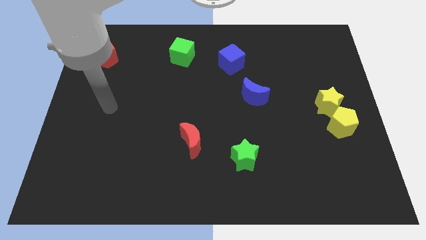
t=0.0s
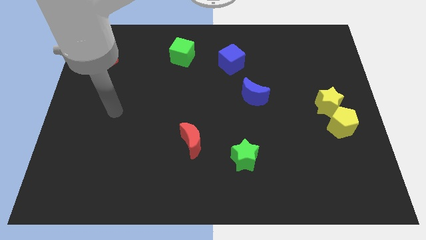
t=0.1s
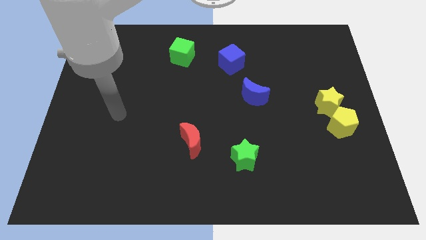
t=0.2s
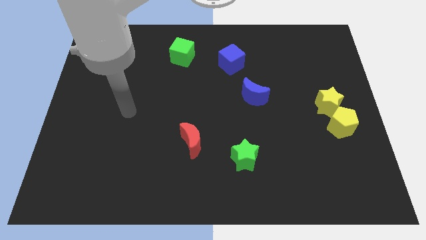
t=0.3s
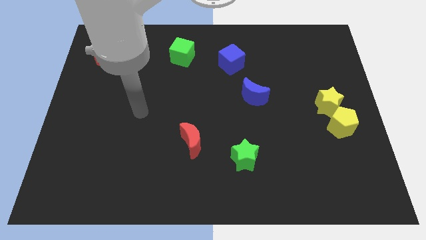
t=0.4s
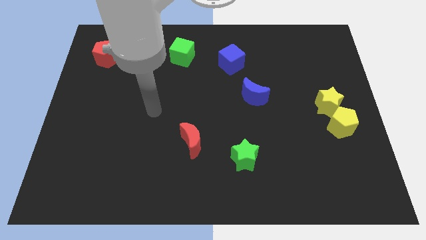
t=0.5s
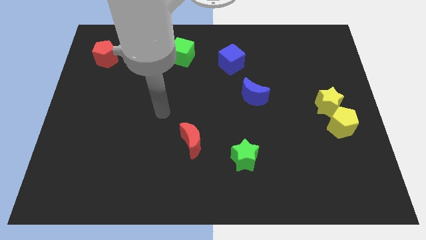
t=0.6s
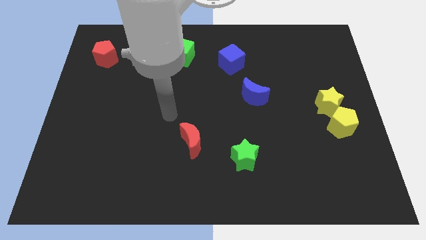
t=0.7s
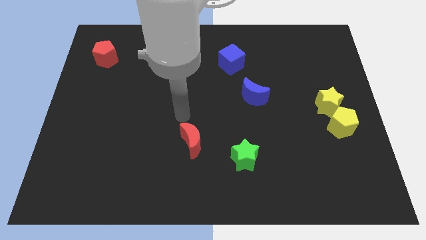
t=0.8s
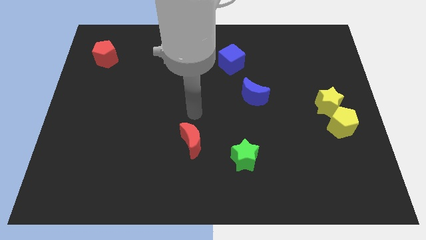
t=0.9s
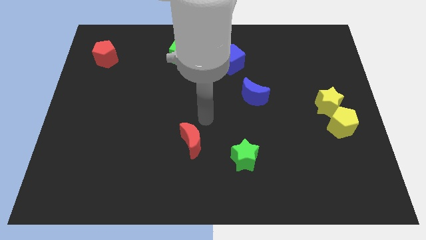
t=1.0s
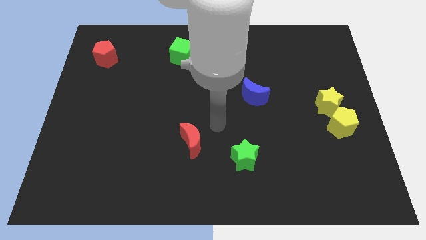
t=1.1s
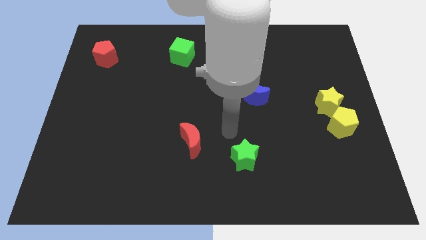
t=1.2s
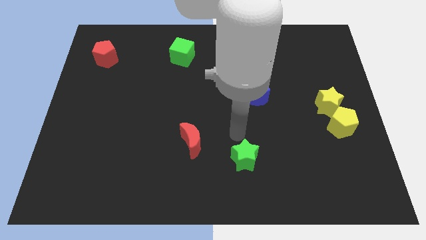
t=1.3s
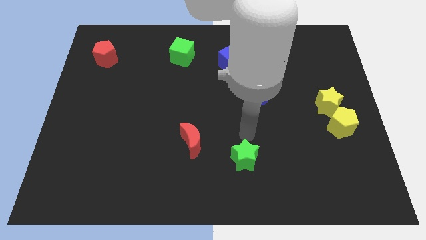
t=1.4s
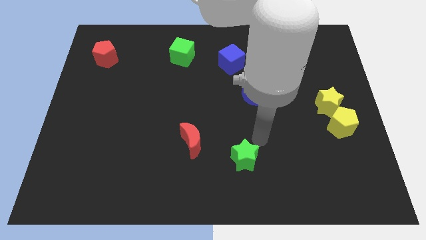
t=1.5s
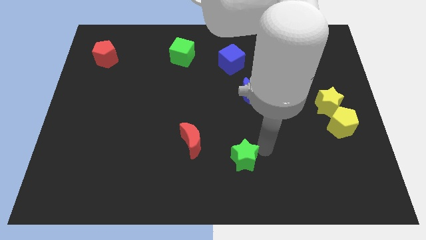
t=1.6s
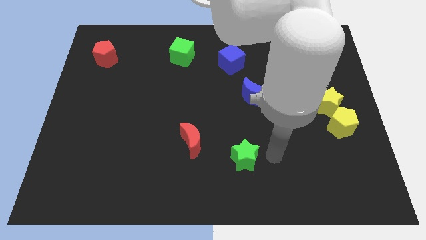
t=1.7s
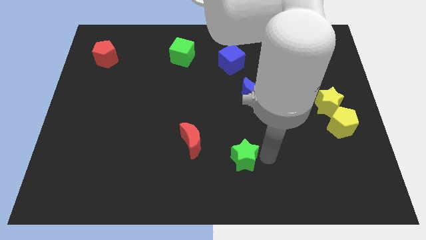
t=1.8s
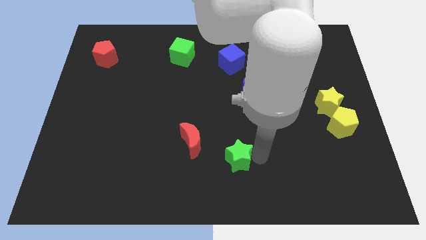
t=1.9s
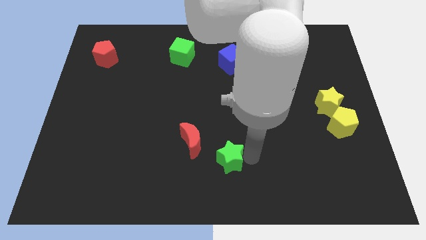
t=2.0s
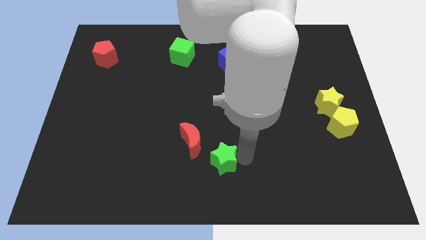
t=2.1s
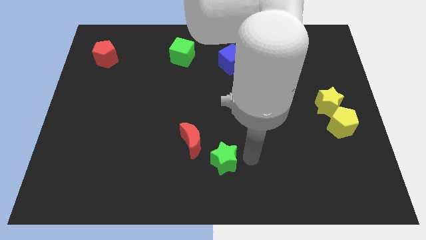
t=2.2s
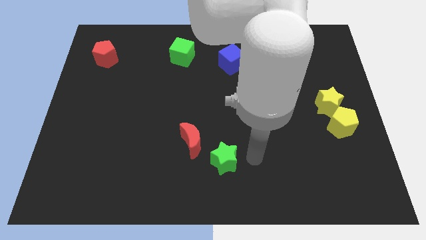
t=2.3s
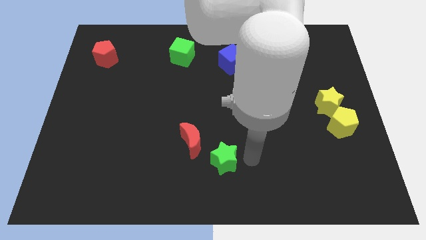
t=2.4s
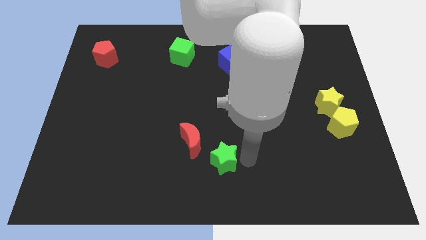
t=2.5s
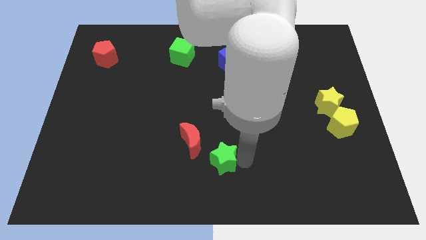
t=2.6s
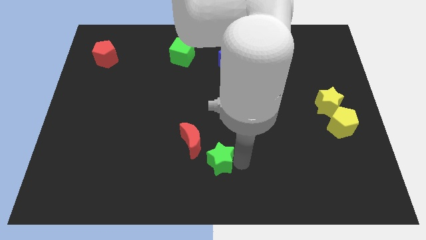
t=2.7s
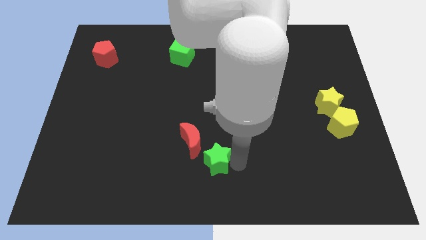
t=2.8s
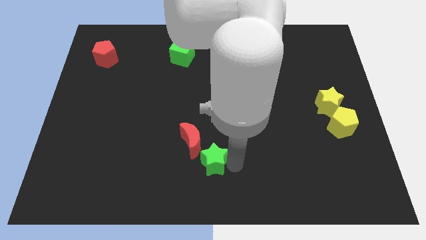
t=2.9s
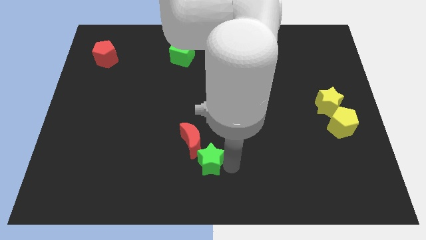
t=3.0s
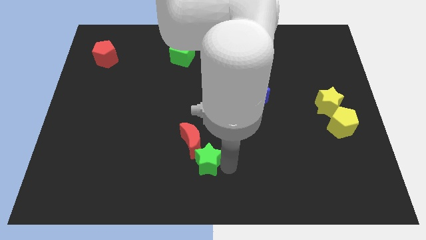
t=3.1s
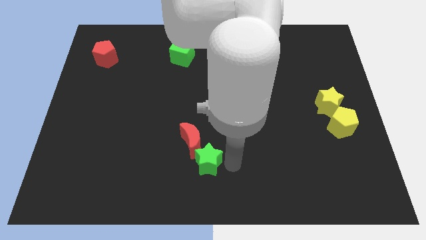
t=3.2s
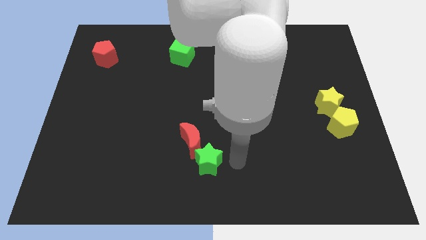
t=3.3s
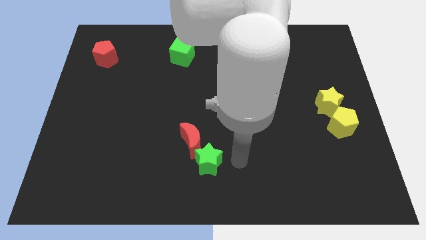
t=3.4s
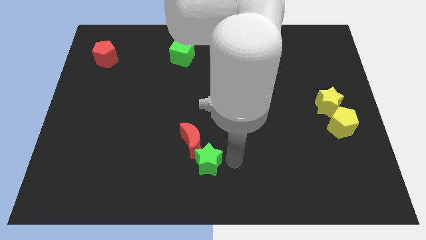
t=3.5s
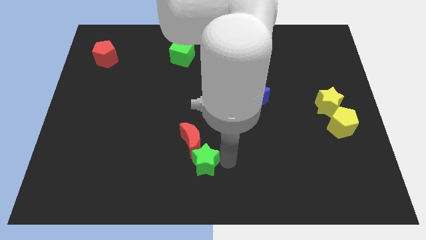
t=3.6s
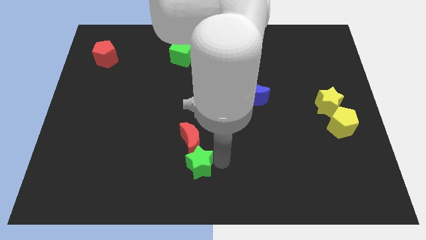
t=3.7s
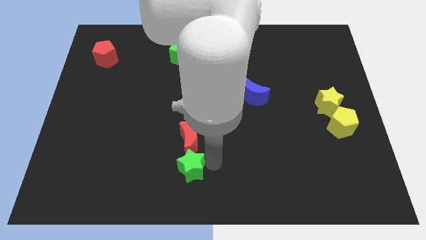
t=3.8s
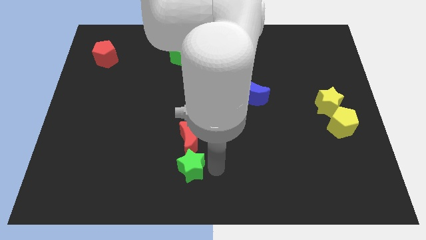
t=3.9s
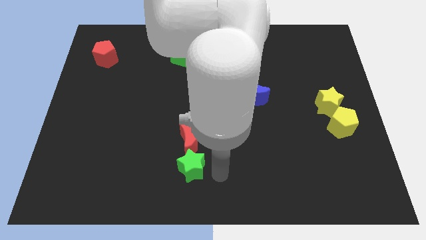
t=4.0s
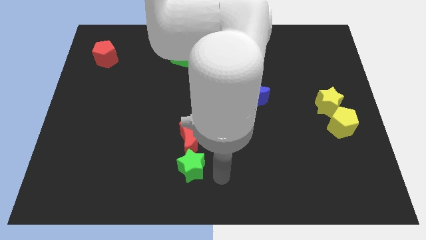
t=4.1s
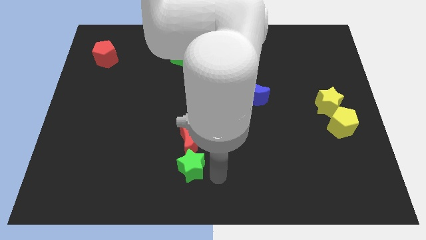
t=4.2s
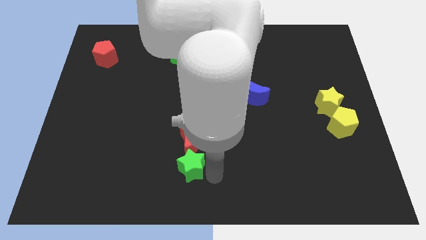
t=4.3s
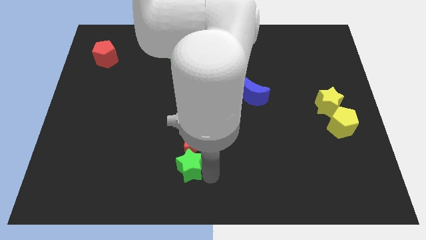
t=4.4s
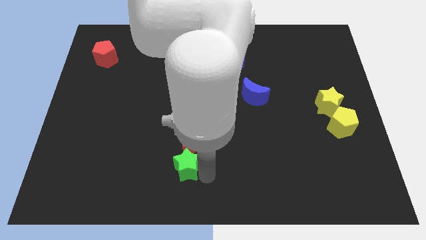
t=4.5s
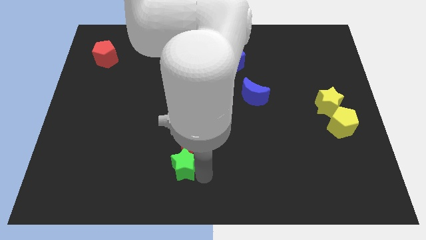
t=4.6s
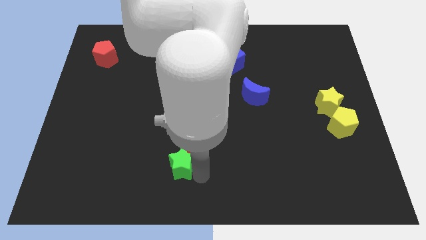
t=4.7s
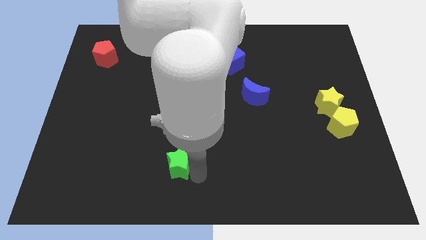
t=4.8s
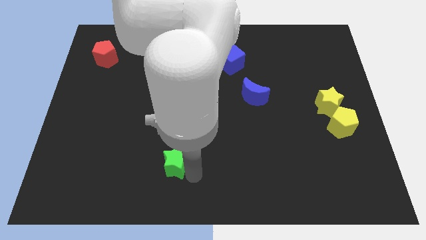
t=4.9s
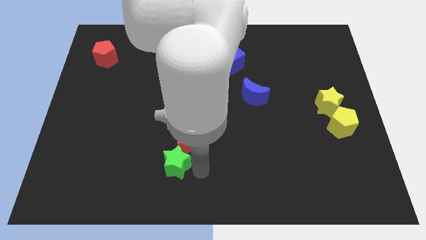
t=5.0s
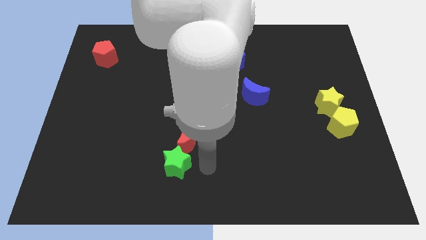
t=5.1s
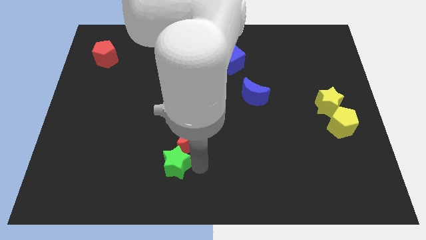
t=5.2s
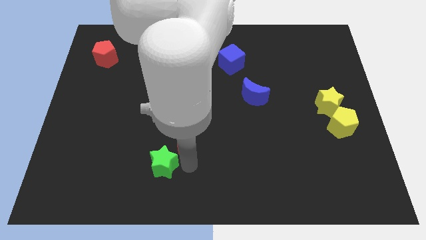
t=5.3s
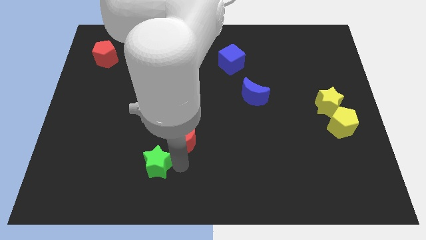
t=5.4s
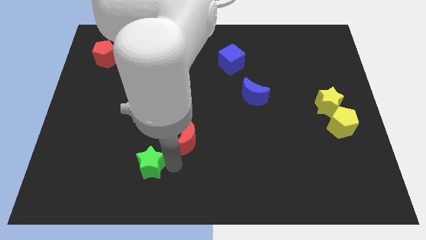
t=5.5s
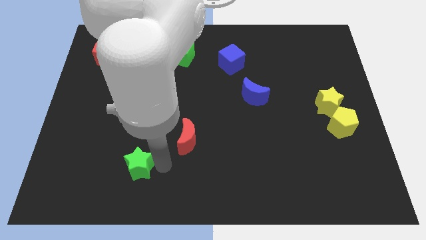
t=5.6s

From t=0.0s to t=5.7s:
move the green star left

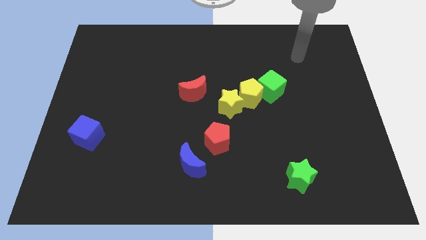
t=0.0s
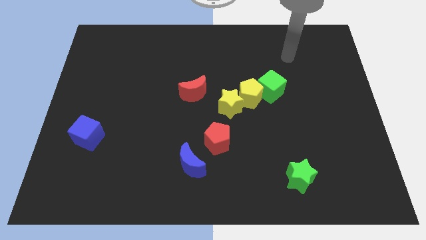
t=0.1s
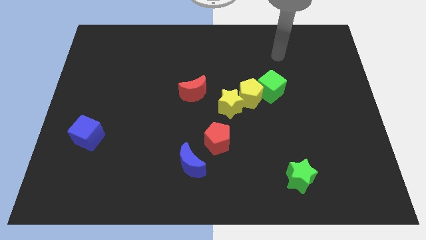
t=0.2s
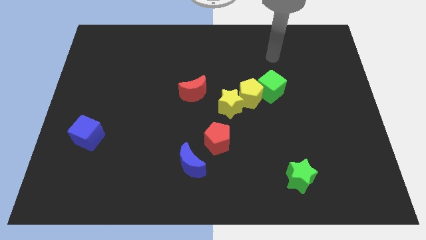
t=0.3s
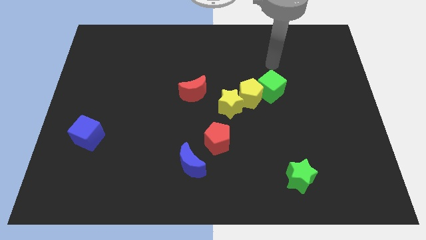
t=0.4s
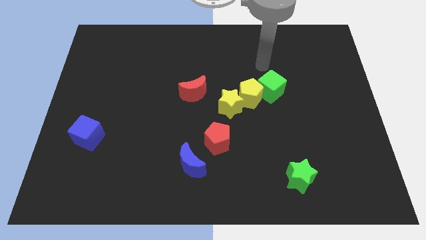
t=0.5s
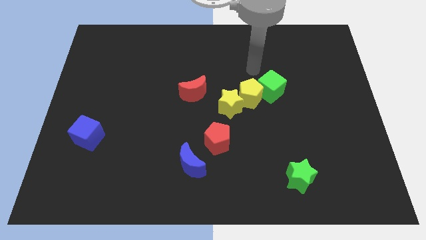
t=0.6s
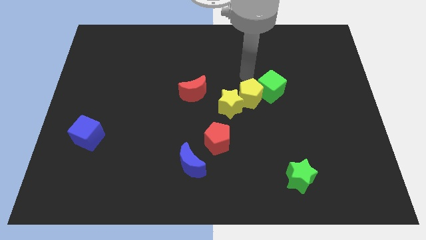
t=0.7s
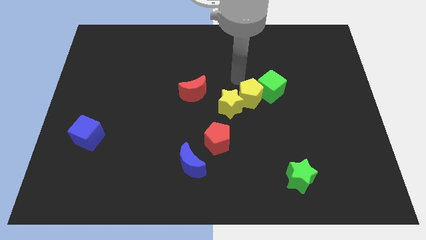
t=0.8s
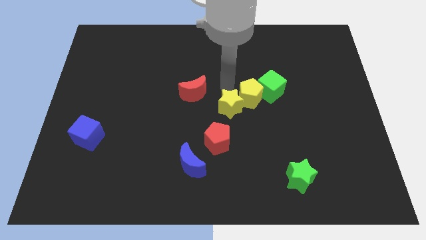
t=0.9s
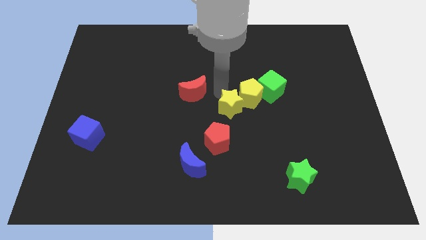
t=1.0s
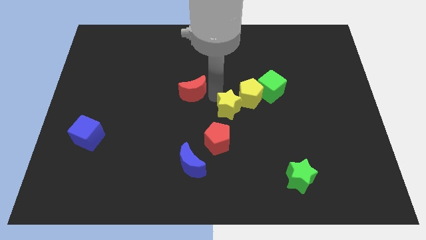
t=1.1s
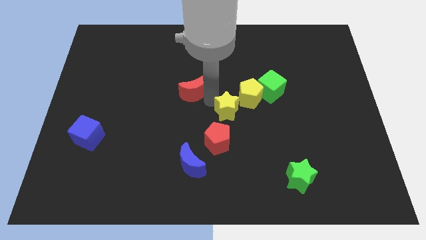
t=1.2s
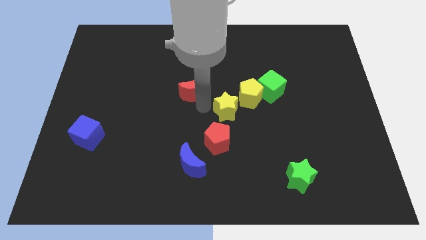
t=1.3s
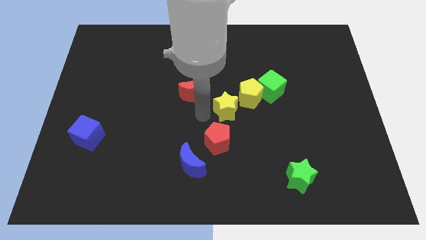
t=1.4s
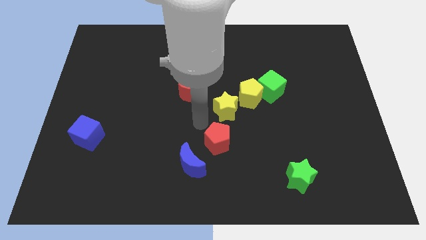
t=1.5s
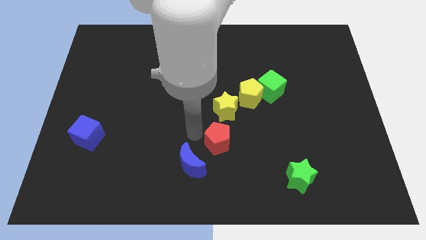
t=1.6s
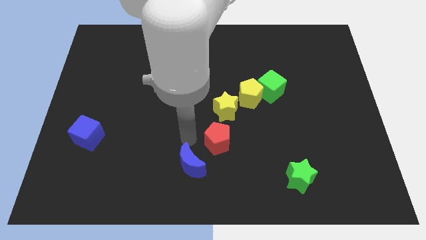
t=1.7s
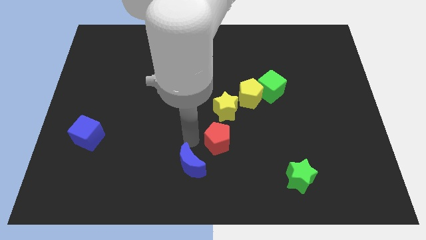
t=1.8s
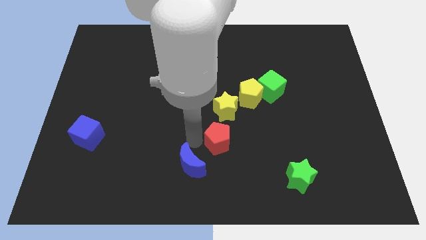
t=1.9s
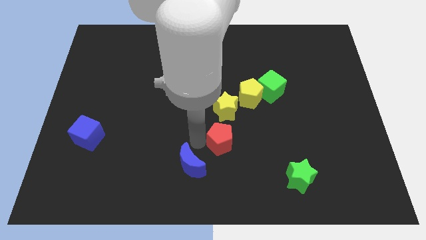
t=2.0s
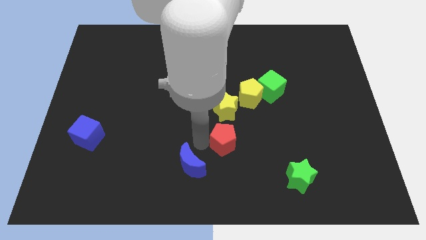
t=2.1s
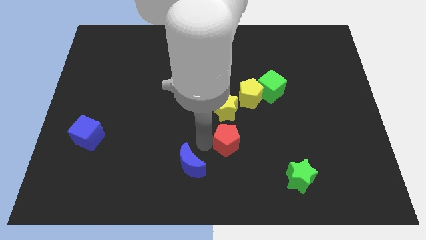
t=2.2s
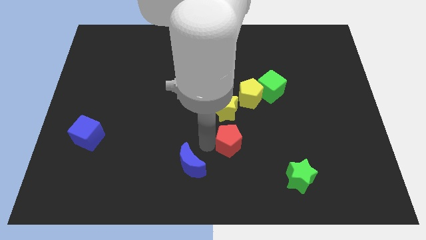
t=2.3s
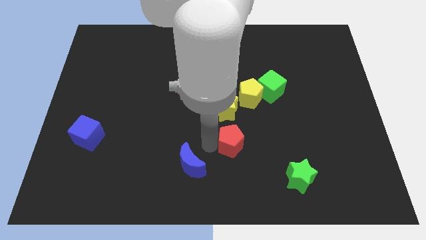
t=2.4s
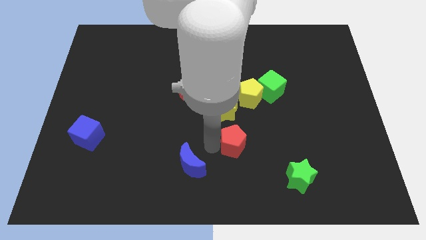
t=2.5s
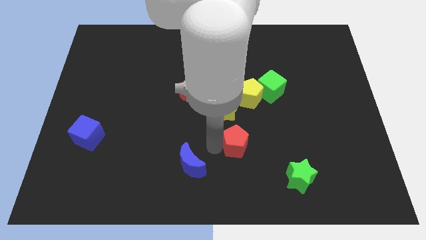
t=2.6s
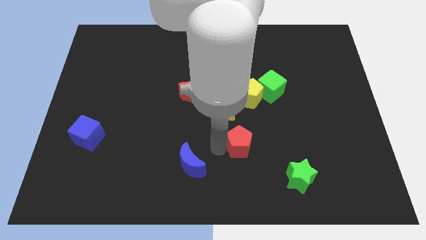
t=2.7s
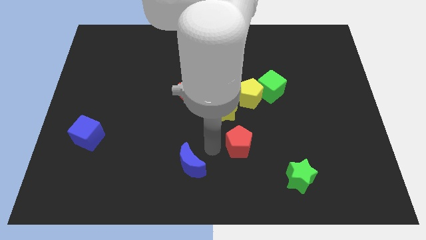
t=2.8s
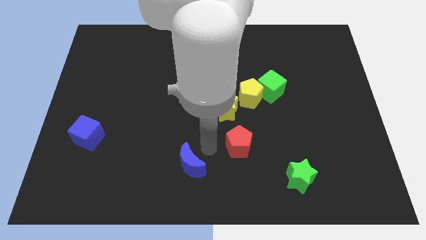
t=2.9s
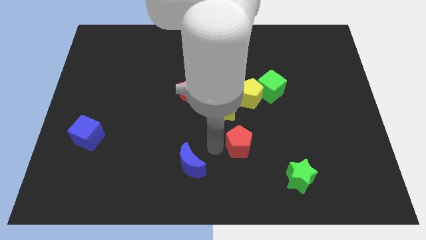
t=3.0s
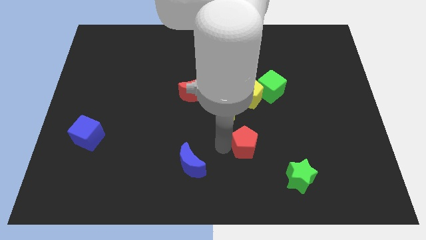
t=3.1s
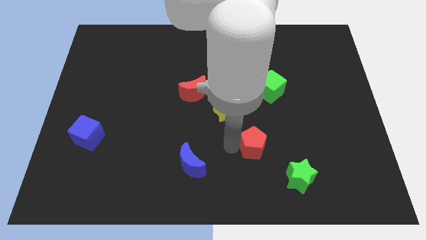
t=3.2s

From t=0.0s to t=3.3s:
slightly move the red pentagon to the right
